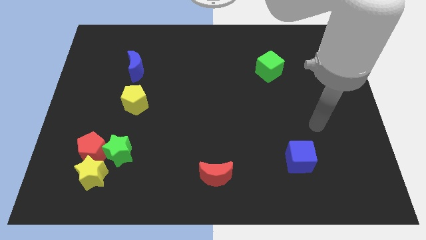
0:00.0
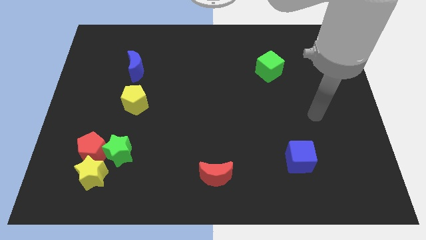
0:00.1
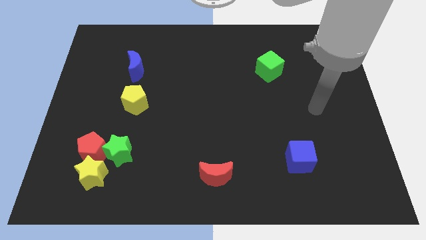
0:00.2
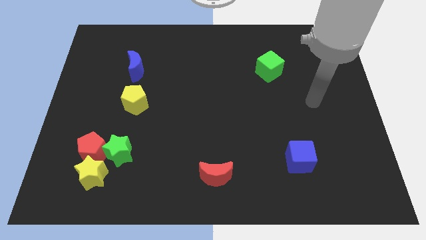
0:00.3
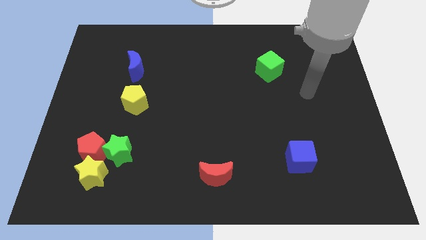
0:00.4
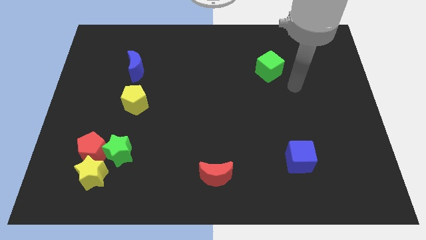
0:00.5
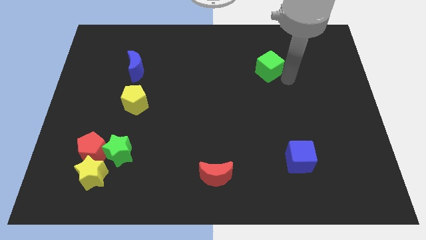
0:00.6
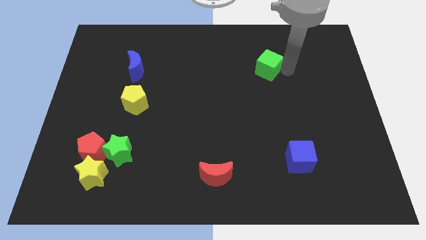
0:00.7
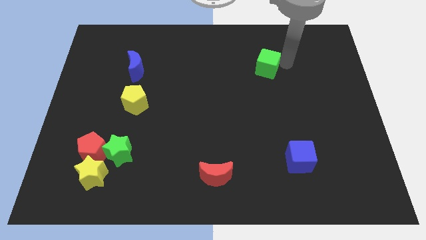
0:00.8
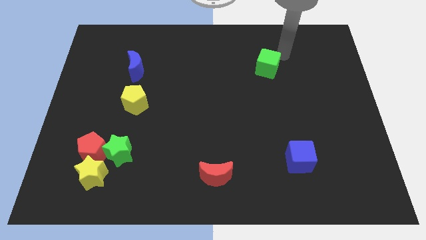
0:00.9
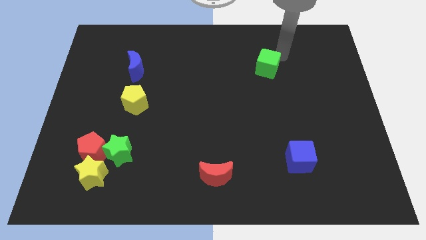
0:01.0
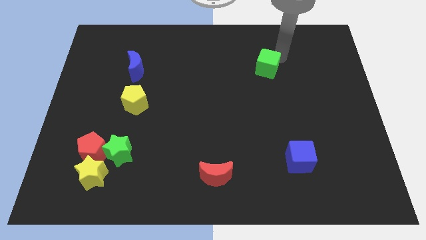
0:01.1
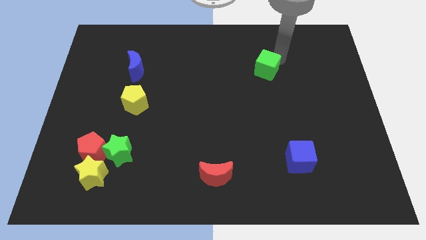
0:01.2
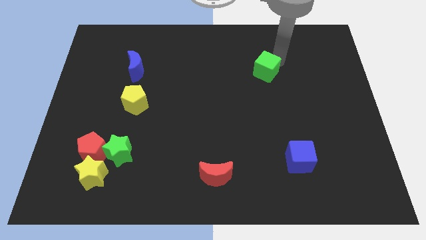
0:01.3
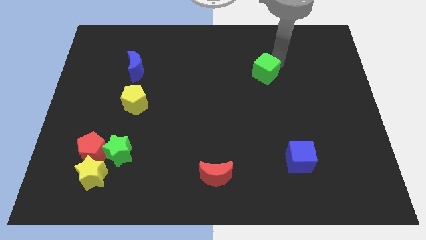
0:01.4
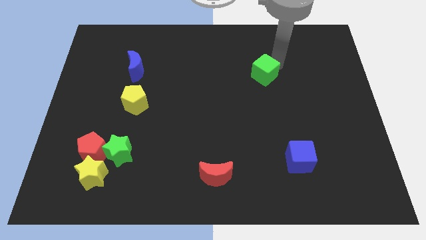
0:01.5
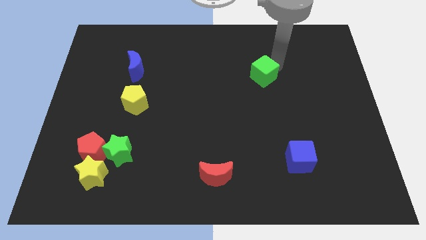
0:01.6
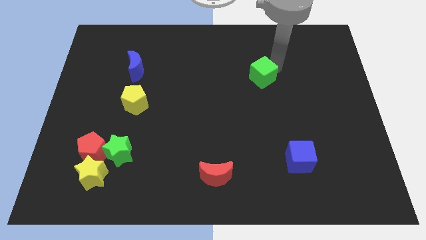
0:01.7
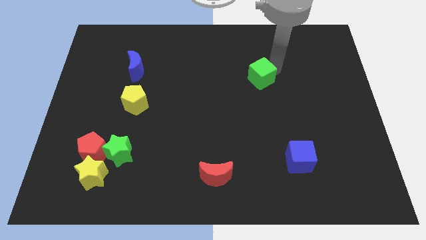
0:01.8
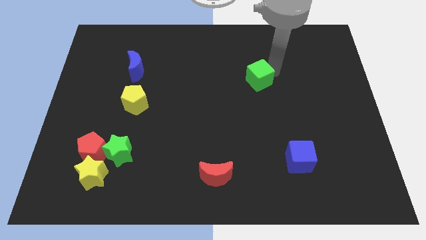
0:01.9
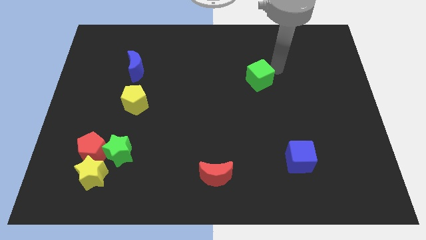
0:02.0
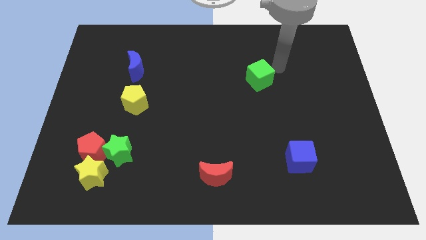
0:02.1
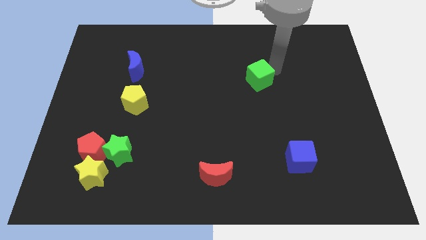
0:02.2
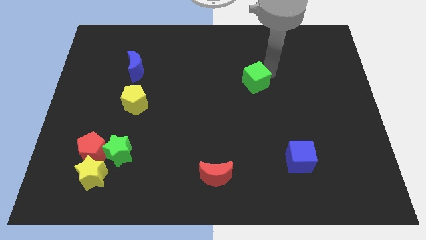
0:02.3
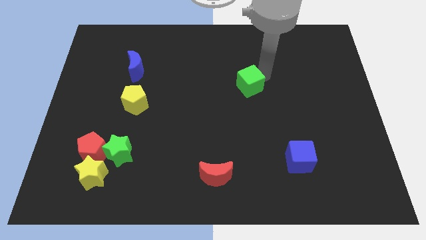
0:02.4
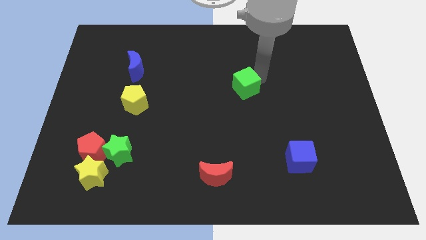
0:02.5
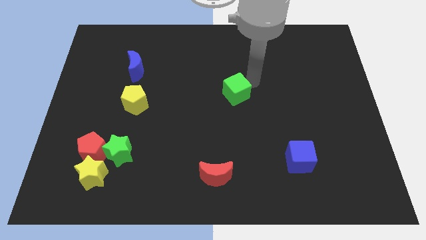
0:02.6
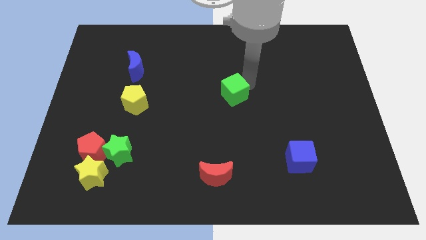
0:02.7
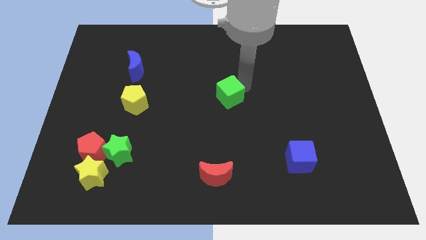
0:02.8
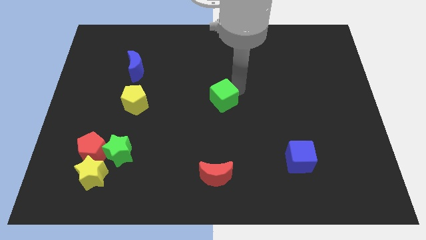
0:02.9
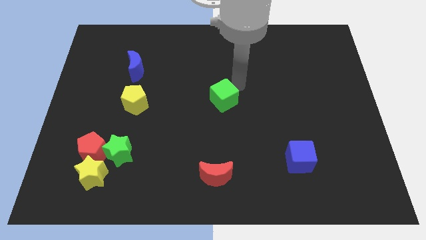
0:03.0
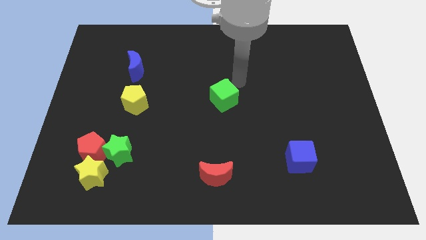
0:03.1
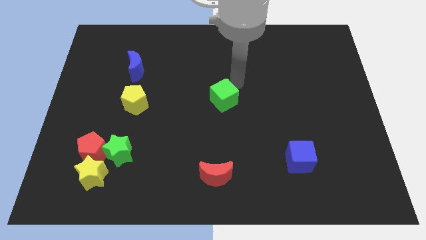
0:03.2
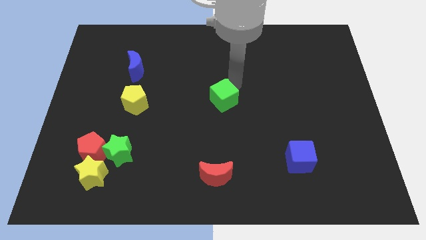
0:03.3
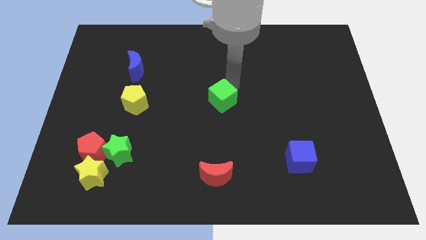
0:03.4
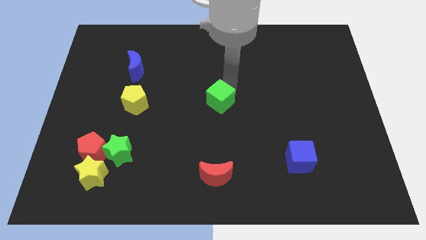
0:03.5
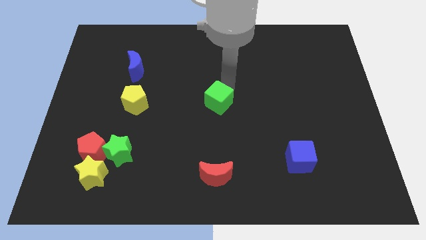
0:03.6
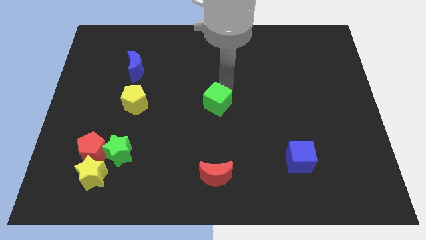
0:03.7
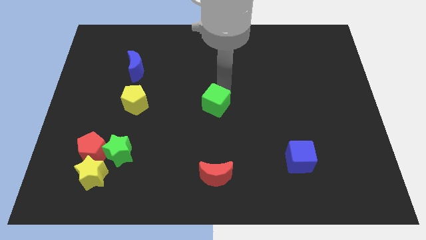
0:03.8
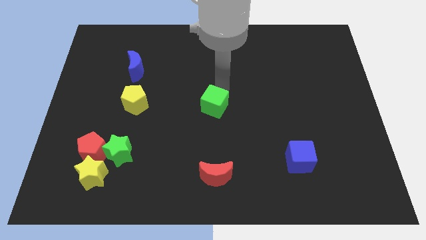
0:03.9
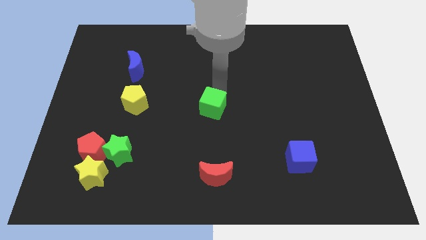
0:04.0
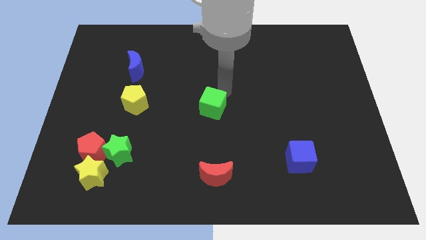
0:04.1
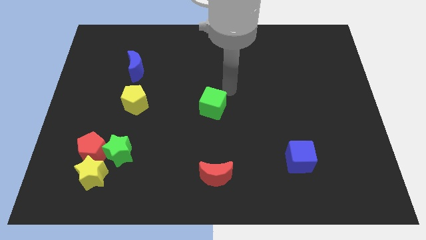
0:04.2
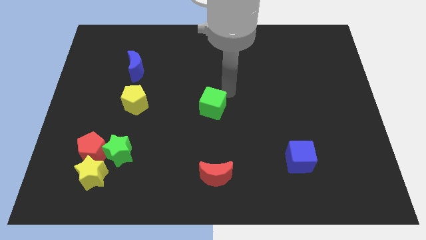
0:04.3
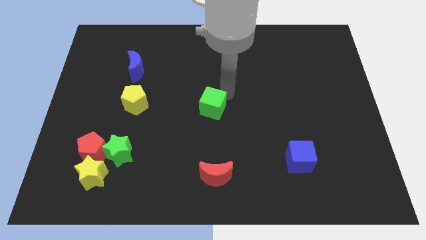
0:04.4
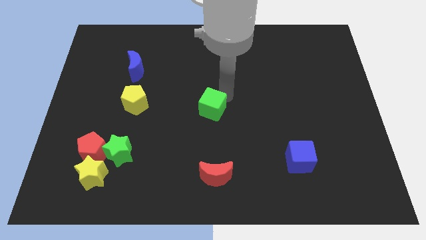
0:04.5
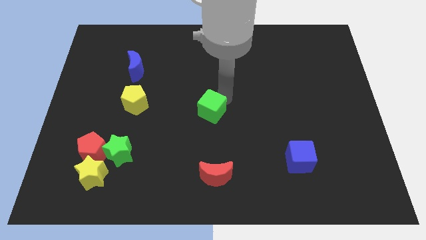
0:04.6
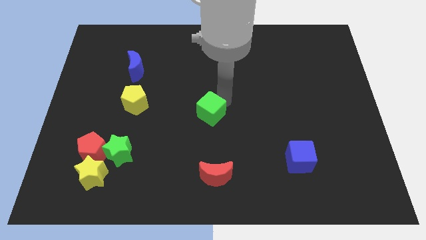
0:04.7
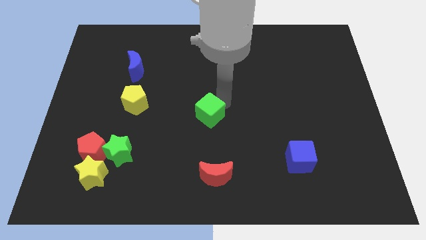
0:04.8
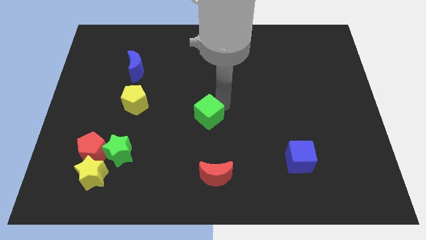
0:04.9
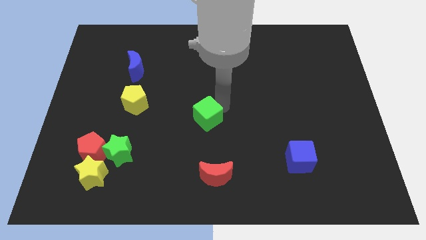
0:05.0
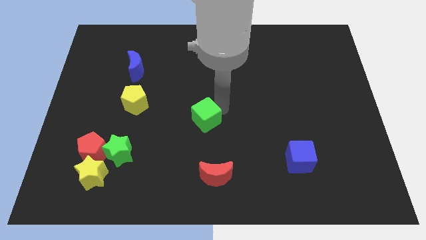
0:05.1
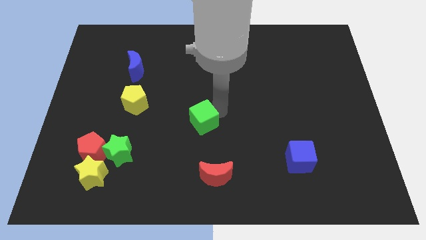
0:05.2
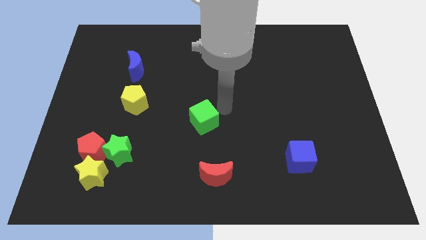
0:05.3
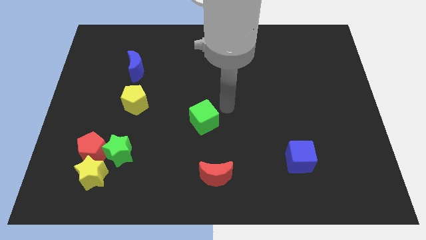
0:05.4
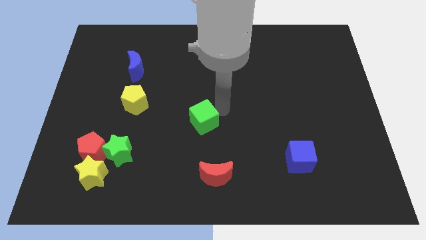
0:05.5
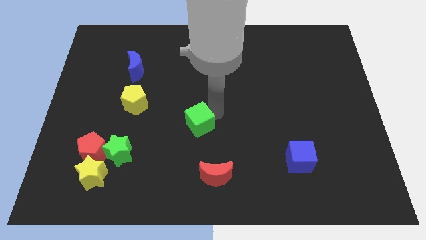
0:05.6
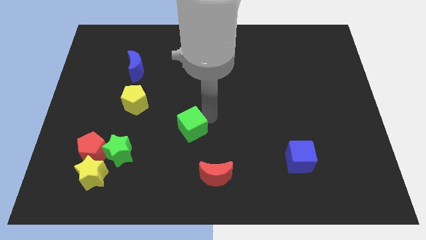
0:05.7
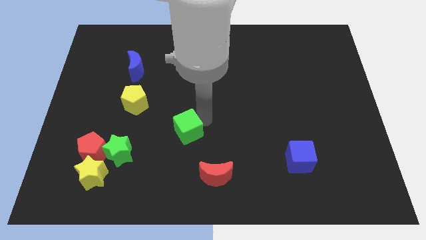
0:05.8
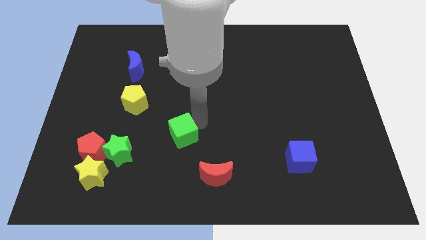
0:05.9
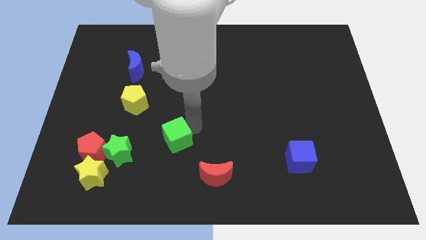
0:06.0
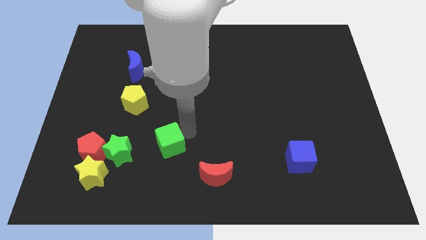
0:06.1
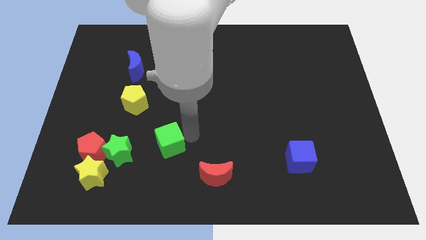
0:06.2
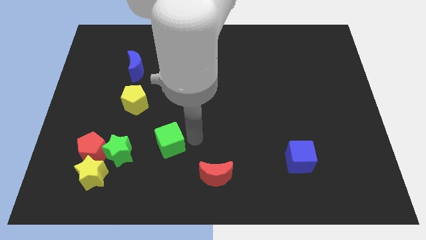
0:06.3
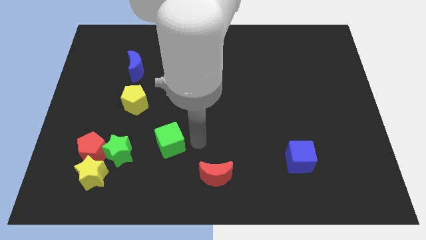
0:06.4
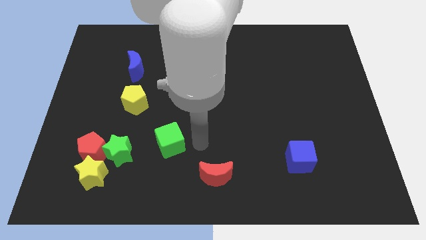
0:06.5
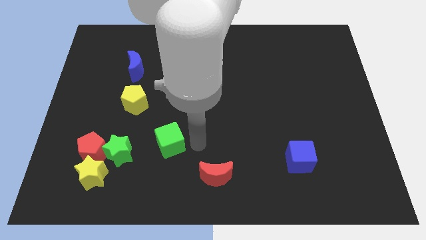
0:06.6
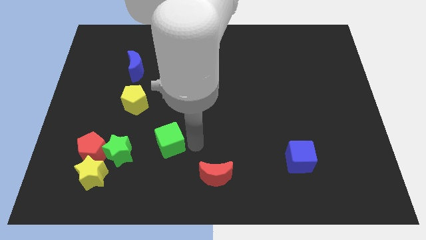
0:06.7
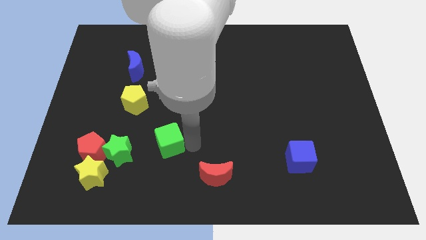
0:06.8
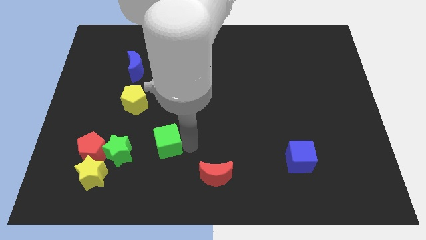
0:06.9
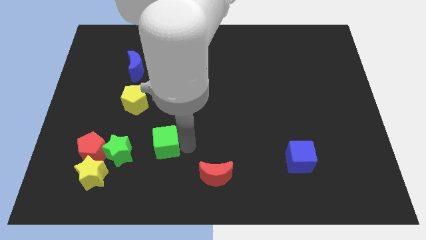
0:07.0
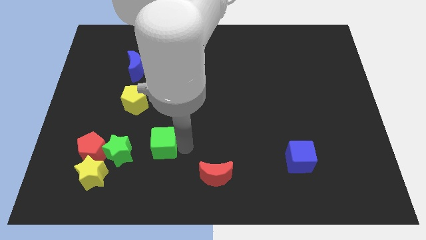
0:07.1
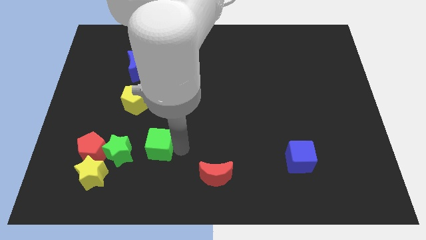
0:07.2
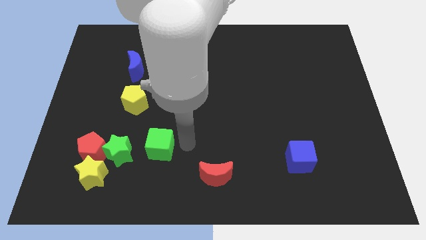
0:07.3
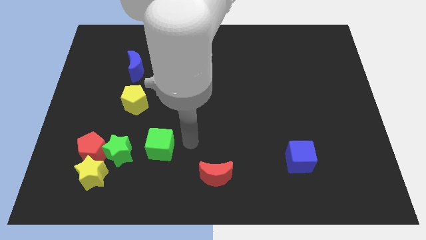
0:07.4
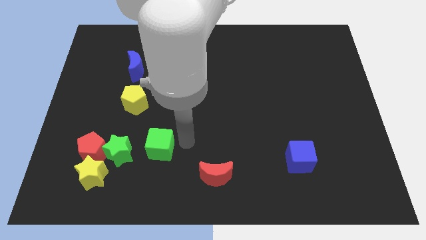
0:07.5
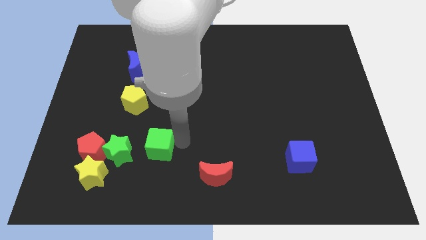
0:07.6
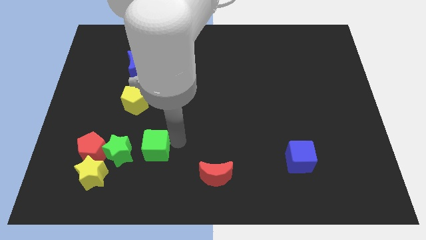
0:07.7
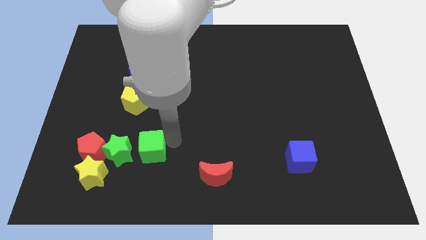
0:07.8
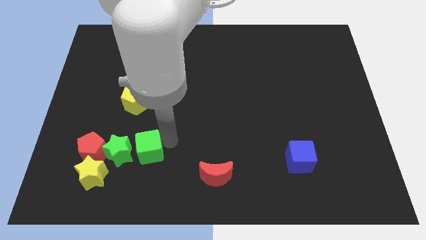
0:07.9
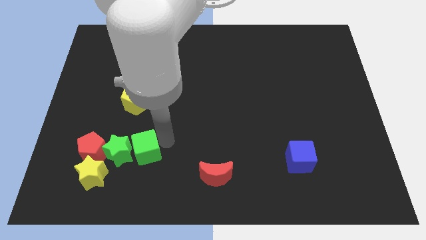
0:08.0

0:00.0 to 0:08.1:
put the green cube next to the green star
